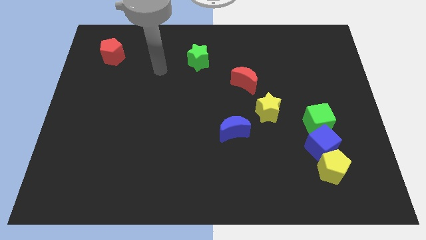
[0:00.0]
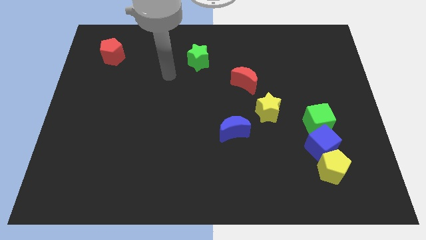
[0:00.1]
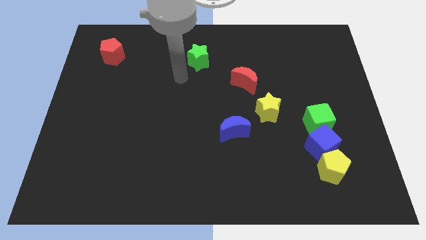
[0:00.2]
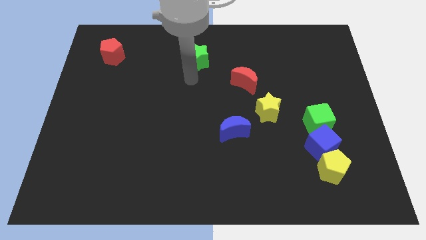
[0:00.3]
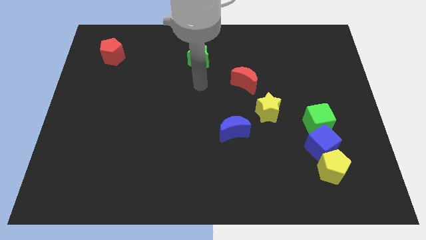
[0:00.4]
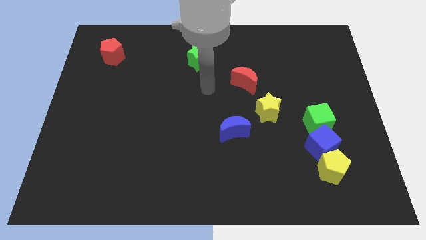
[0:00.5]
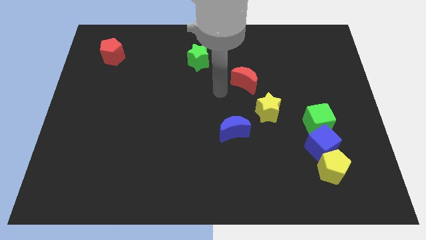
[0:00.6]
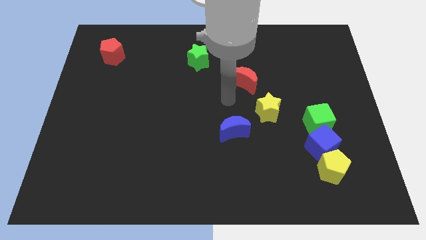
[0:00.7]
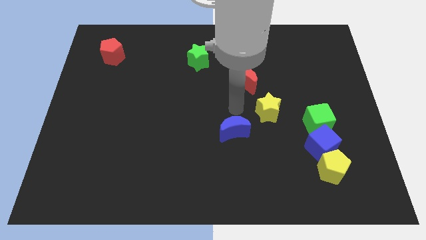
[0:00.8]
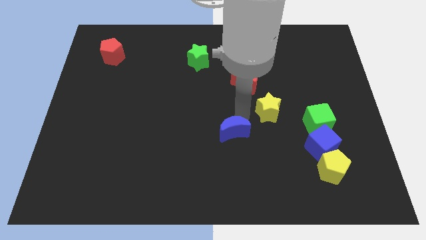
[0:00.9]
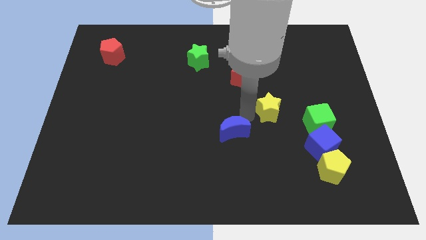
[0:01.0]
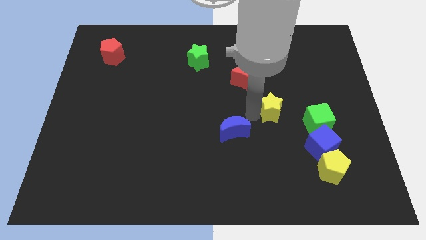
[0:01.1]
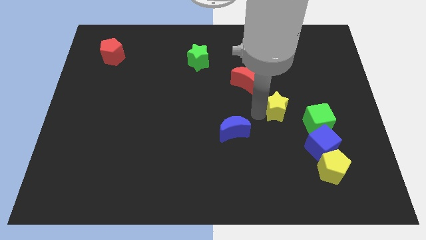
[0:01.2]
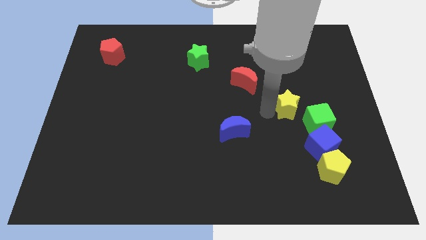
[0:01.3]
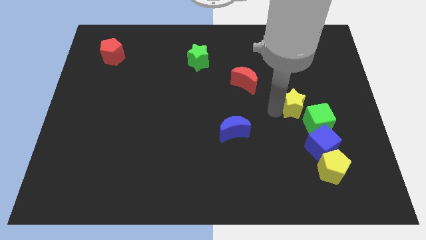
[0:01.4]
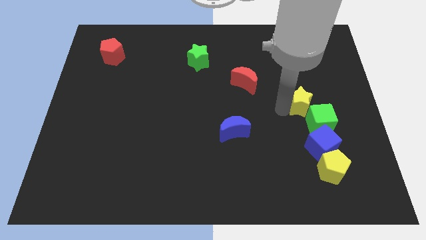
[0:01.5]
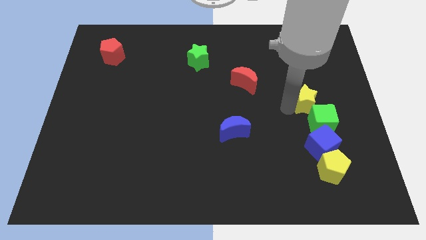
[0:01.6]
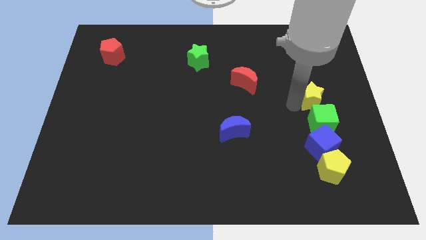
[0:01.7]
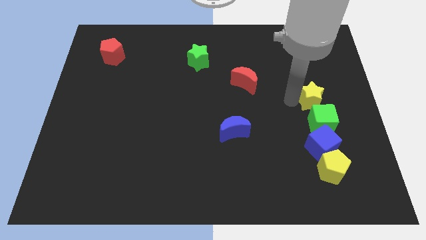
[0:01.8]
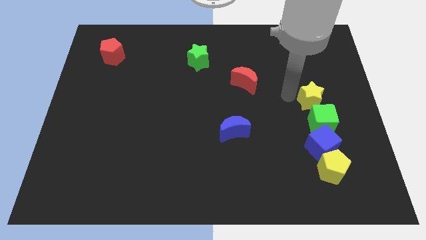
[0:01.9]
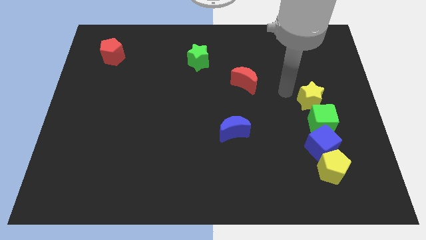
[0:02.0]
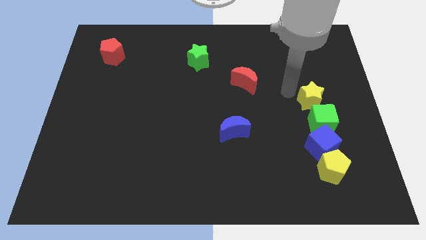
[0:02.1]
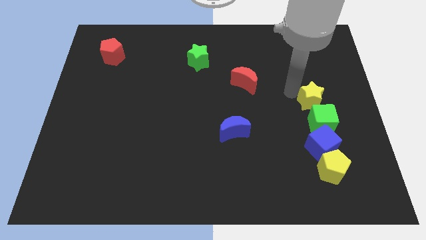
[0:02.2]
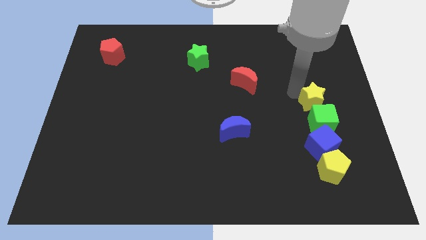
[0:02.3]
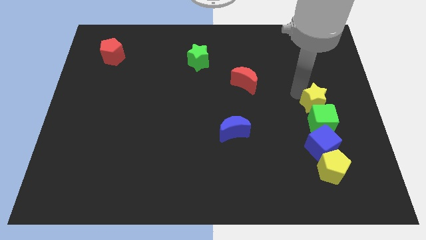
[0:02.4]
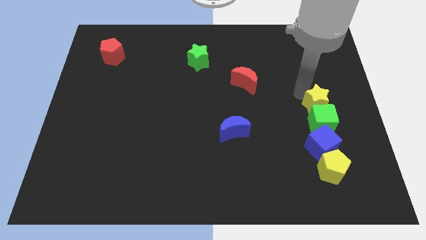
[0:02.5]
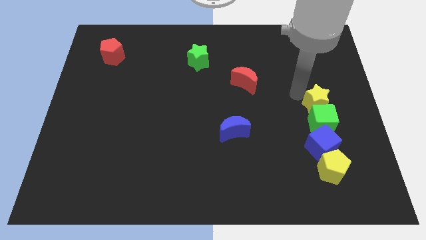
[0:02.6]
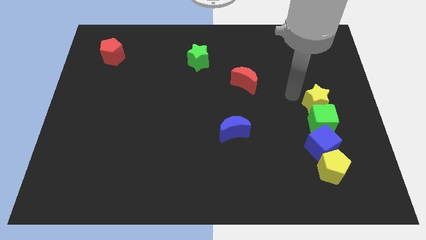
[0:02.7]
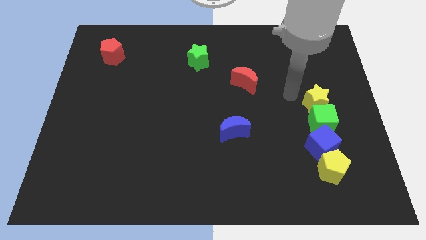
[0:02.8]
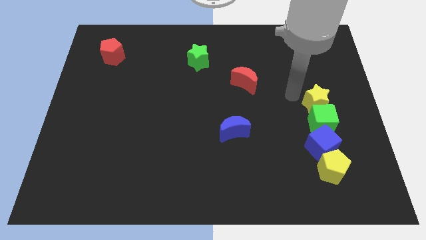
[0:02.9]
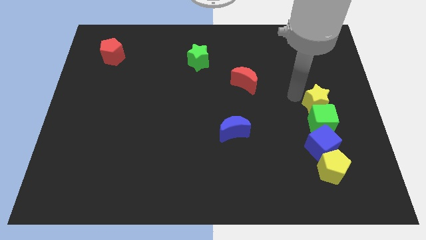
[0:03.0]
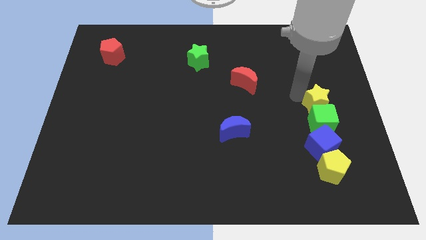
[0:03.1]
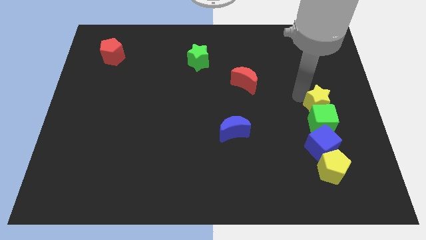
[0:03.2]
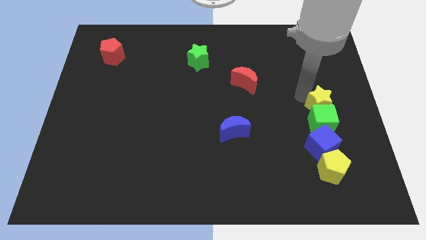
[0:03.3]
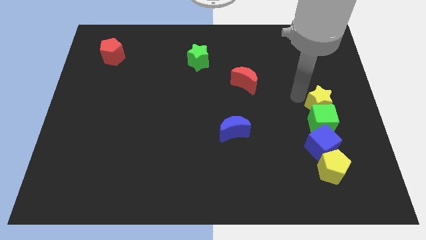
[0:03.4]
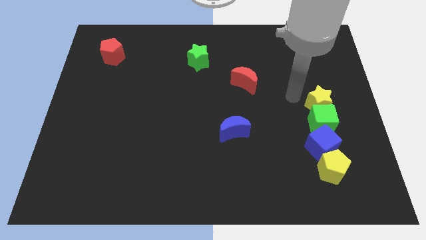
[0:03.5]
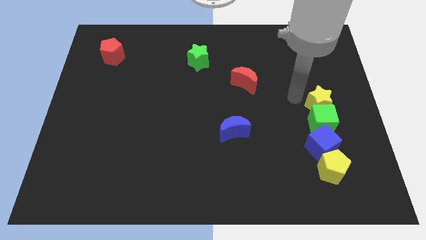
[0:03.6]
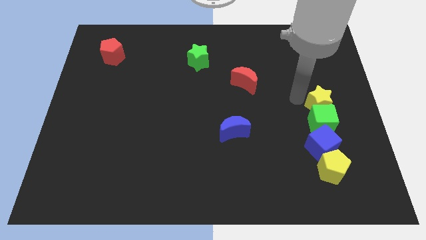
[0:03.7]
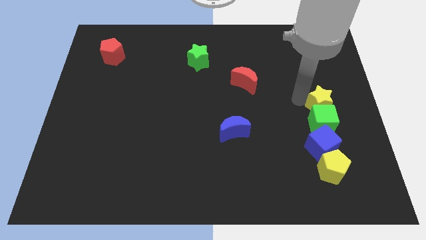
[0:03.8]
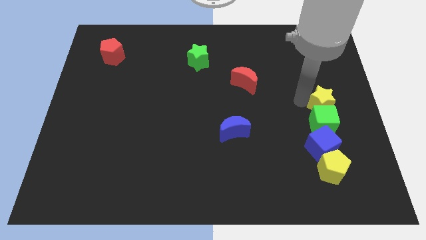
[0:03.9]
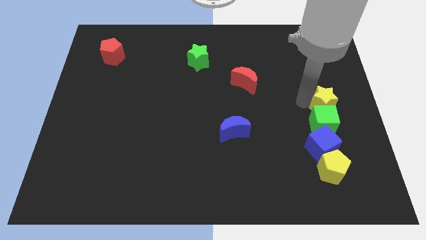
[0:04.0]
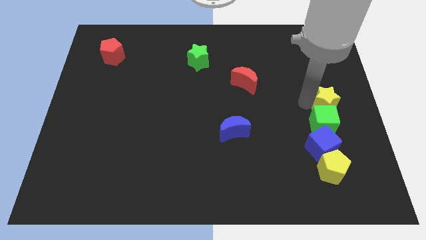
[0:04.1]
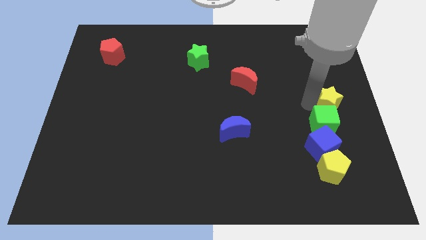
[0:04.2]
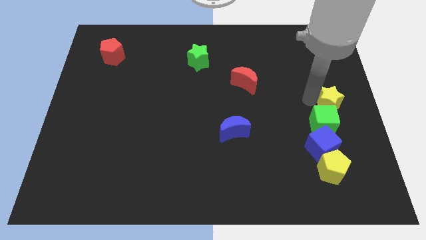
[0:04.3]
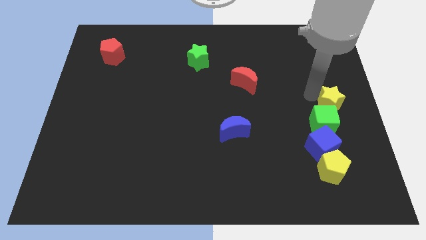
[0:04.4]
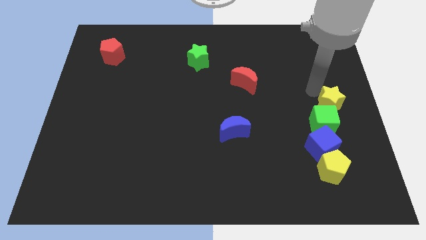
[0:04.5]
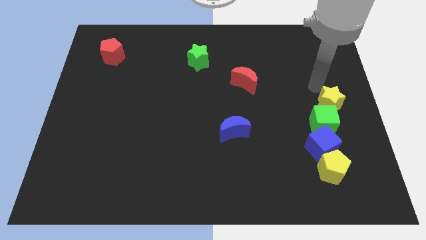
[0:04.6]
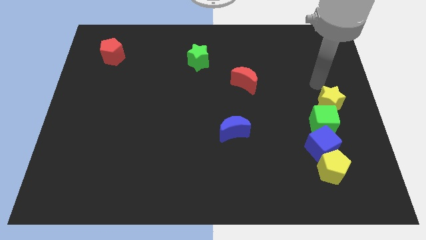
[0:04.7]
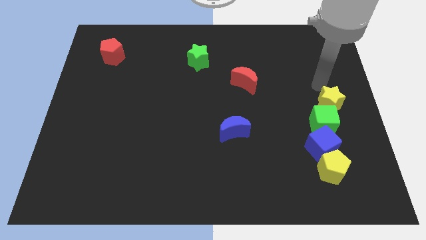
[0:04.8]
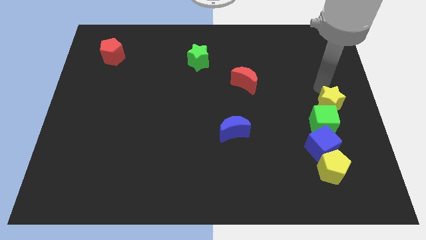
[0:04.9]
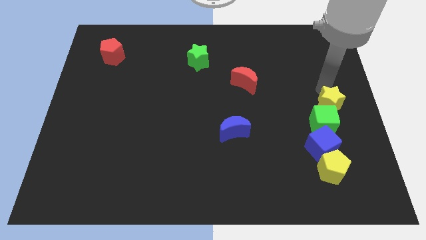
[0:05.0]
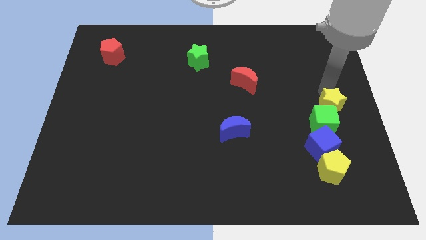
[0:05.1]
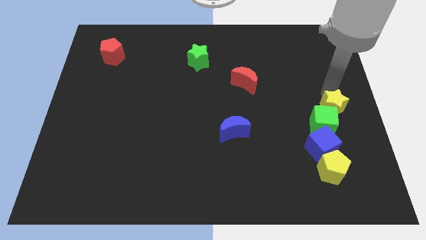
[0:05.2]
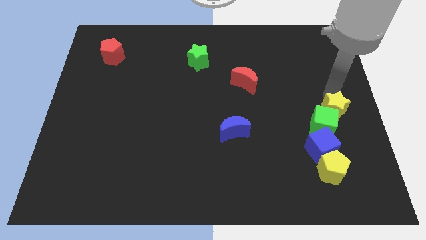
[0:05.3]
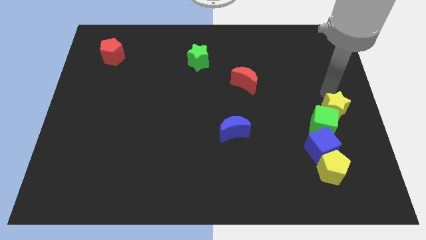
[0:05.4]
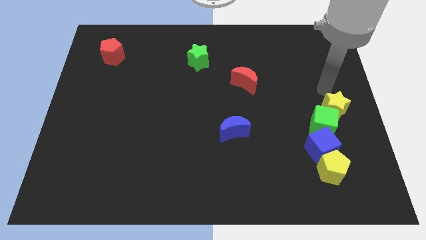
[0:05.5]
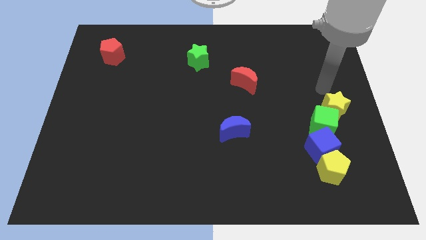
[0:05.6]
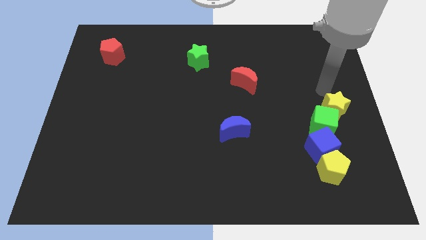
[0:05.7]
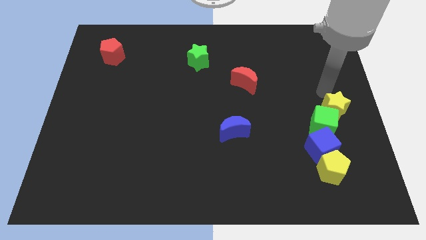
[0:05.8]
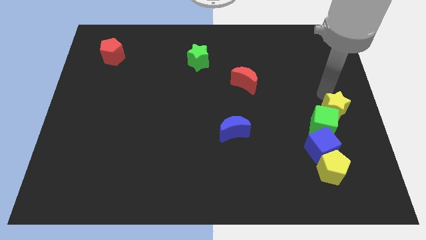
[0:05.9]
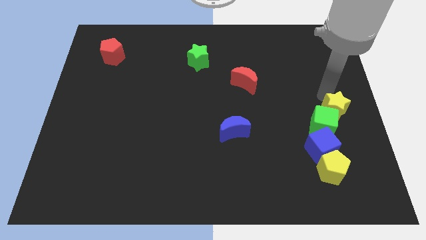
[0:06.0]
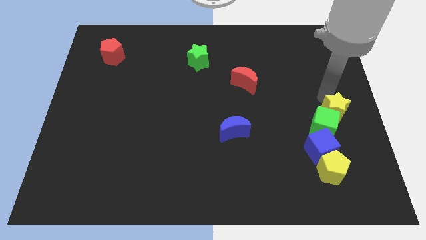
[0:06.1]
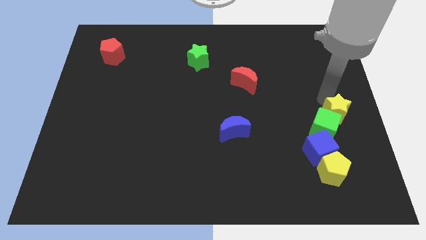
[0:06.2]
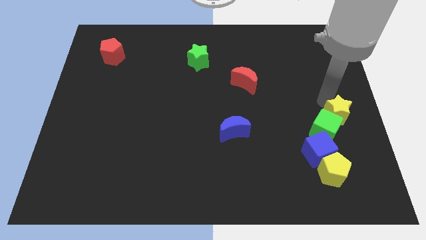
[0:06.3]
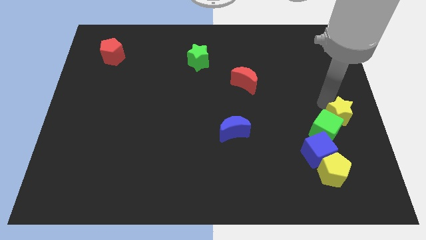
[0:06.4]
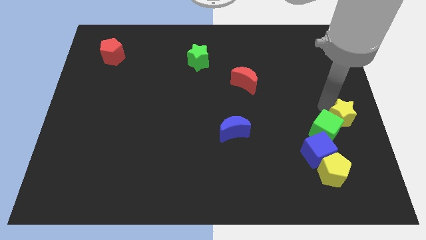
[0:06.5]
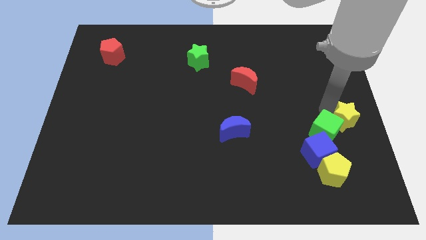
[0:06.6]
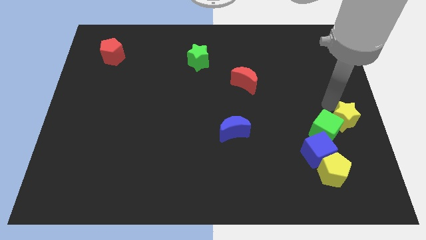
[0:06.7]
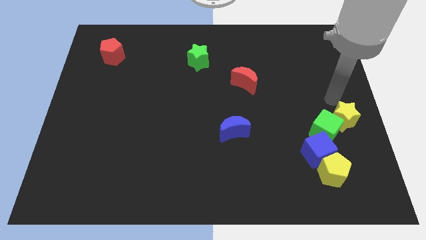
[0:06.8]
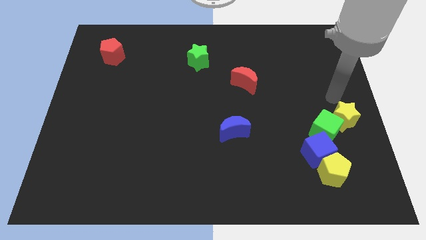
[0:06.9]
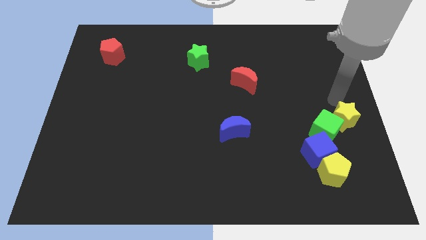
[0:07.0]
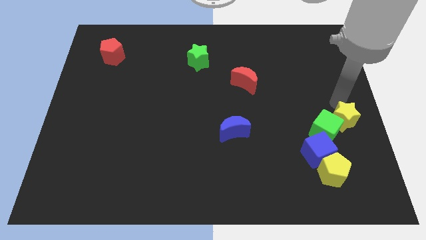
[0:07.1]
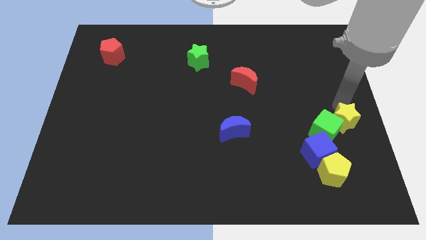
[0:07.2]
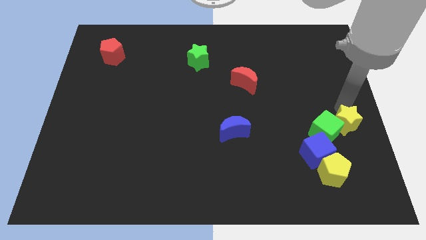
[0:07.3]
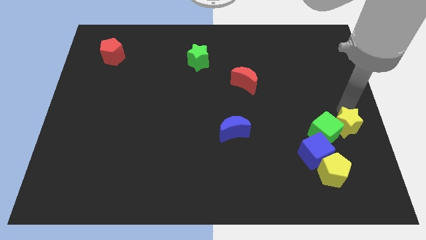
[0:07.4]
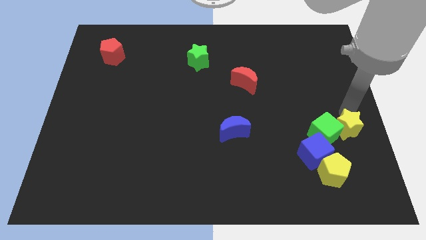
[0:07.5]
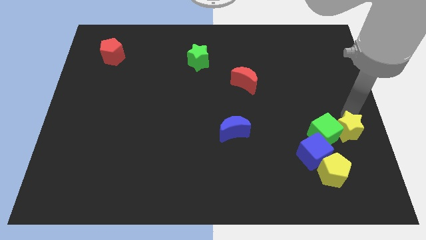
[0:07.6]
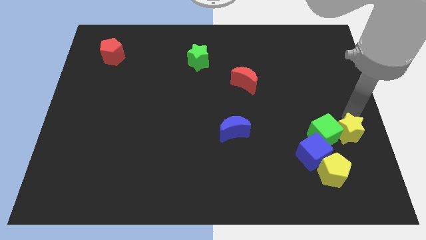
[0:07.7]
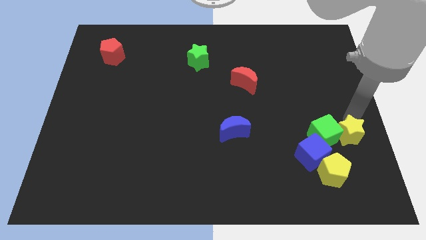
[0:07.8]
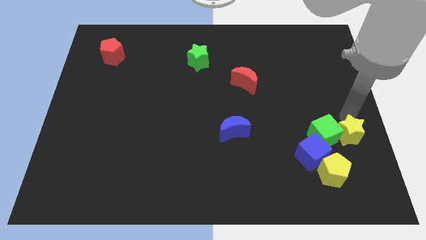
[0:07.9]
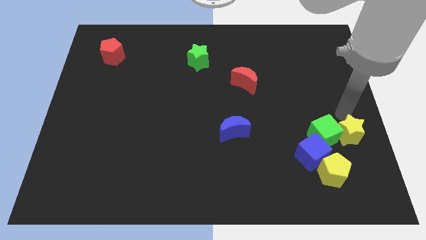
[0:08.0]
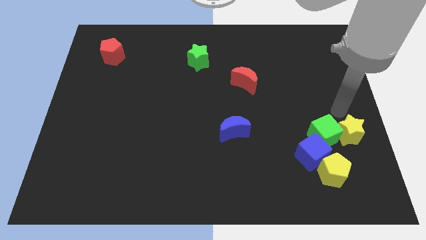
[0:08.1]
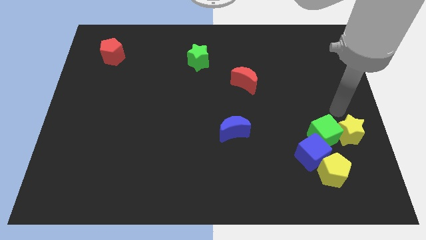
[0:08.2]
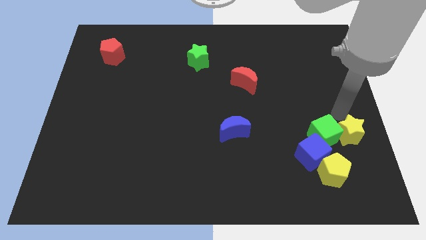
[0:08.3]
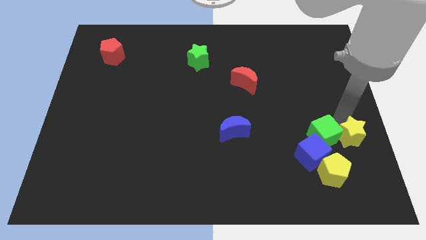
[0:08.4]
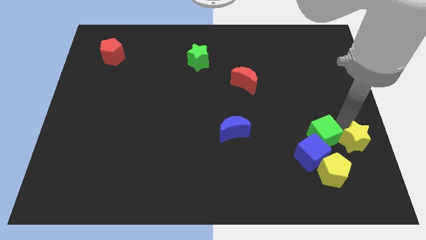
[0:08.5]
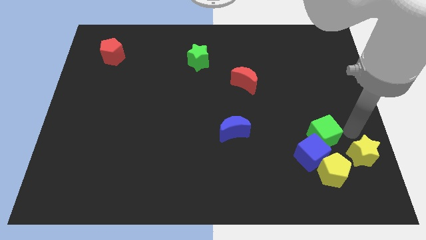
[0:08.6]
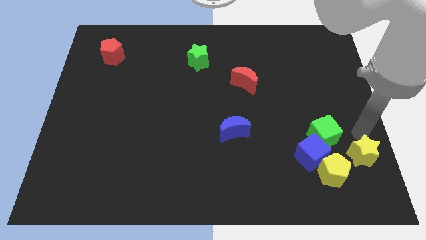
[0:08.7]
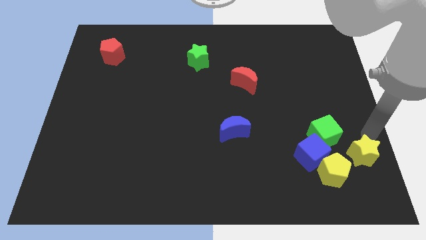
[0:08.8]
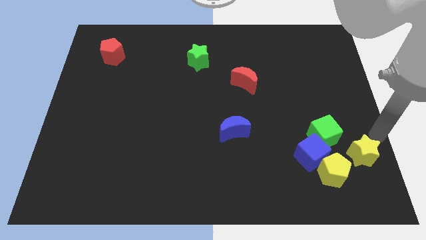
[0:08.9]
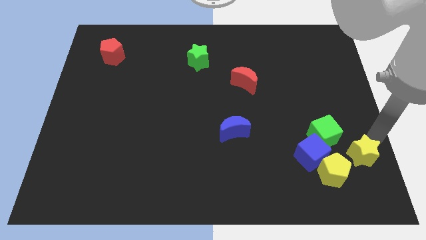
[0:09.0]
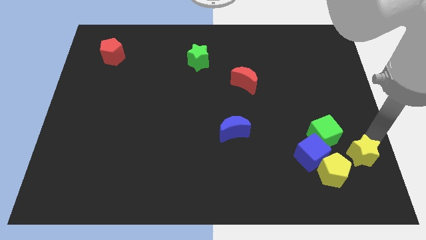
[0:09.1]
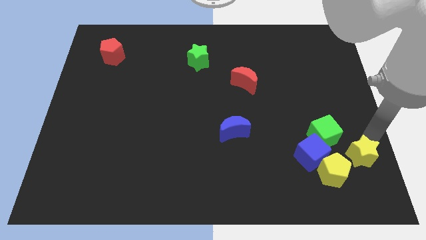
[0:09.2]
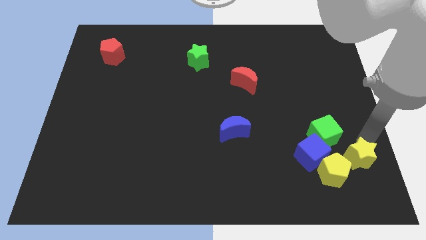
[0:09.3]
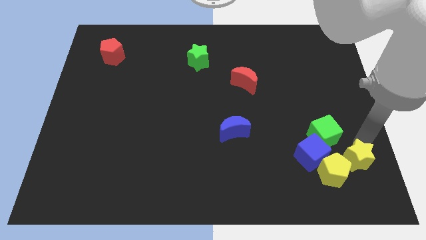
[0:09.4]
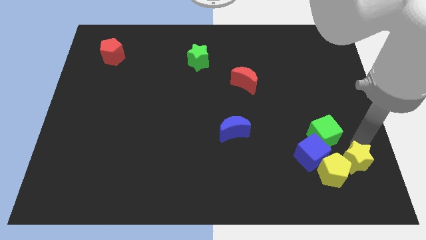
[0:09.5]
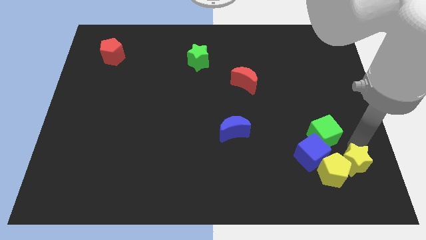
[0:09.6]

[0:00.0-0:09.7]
move the yellow star to the bottom right side of the blue cube
